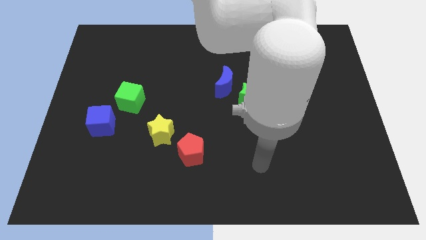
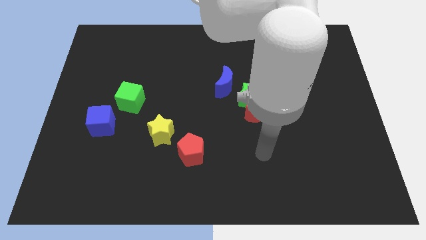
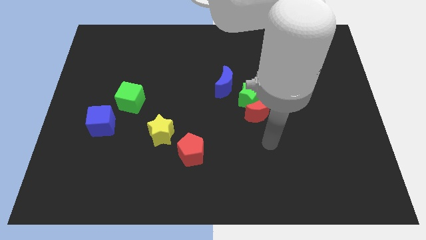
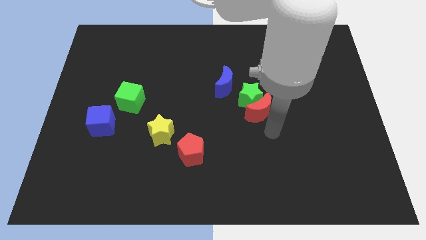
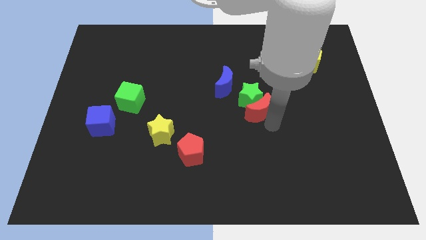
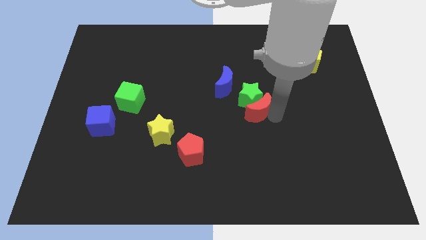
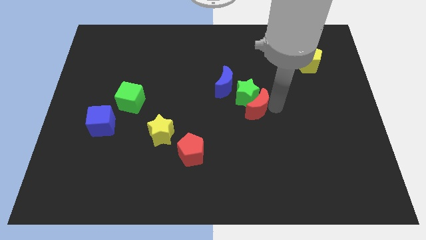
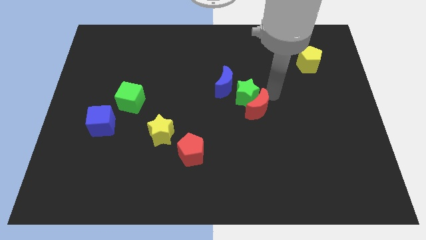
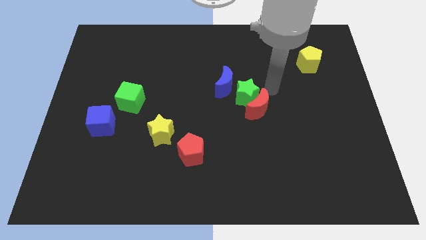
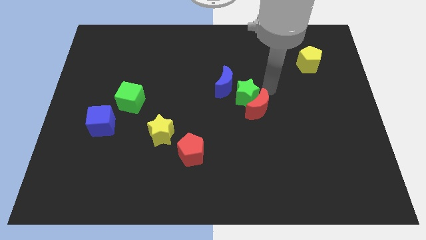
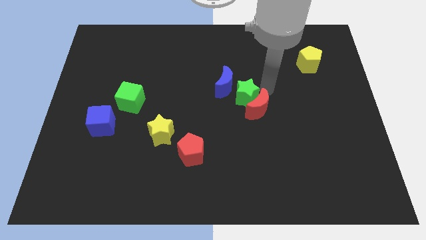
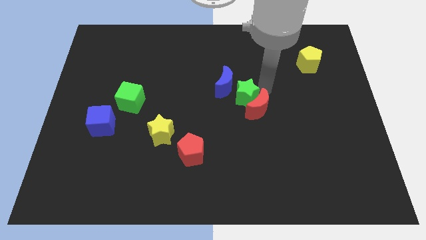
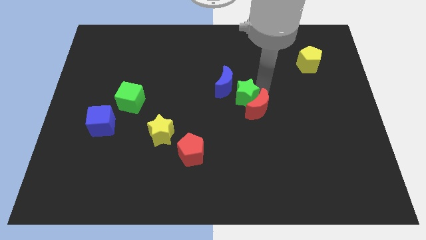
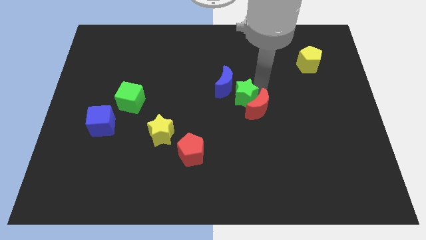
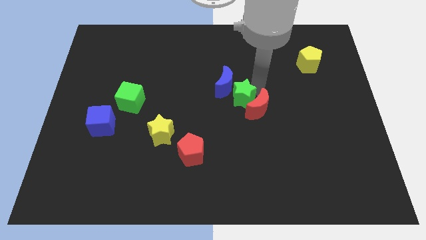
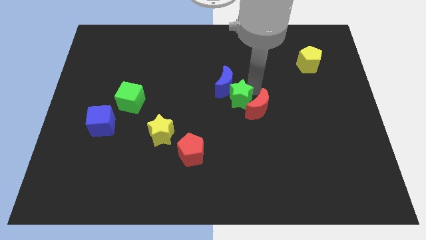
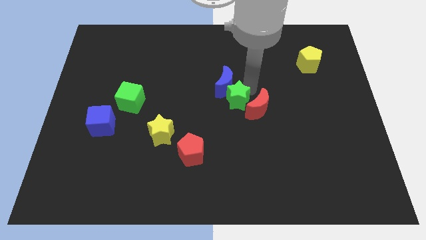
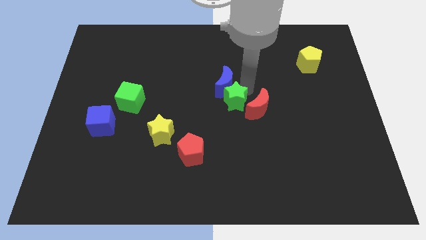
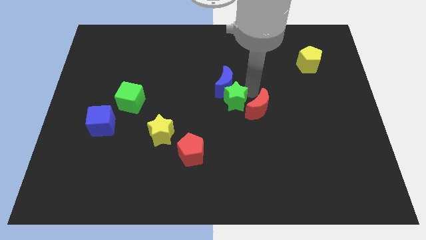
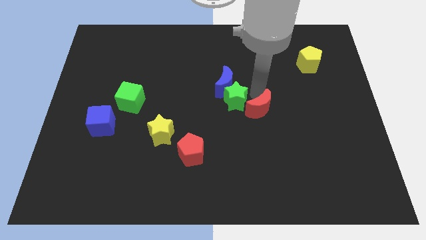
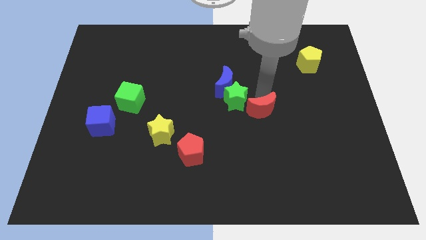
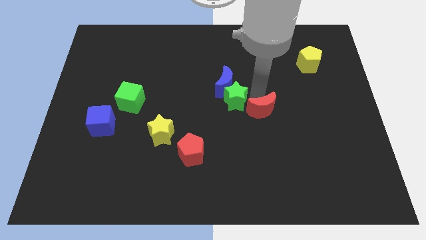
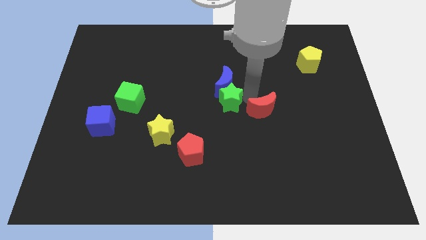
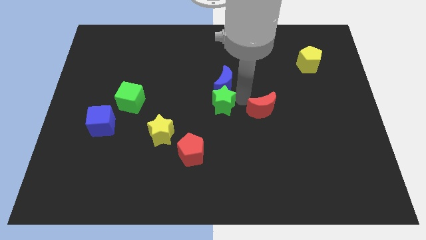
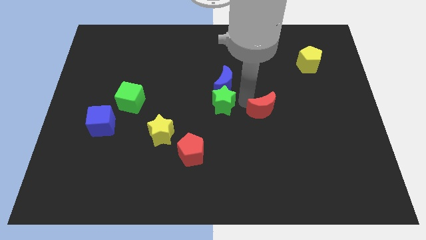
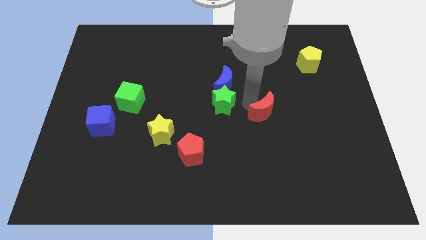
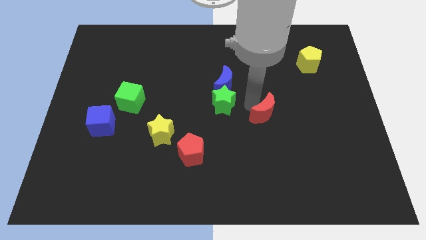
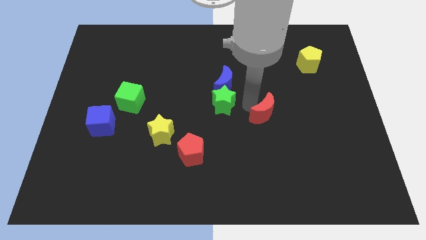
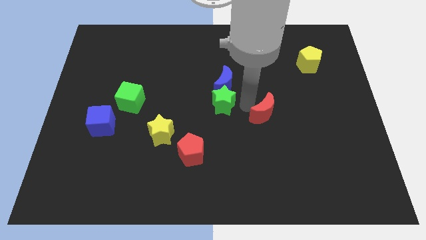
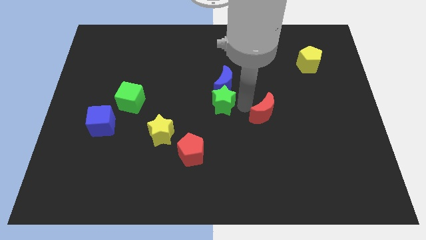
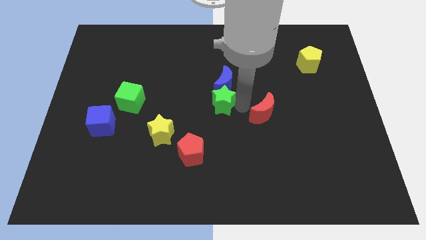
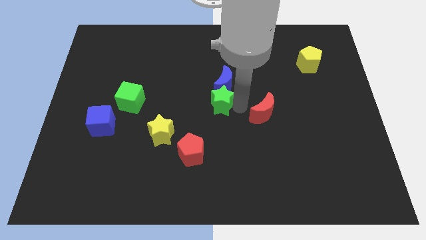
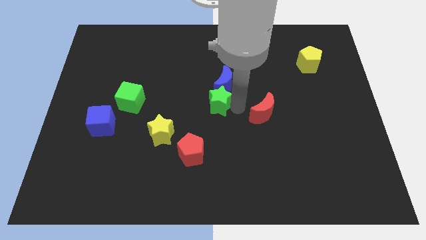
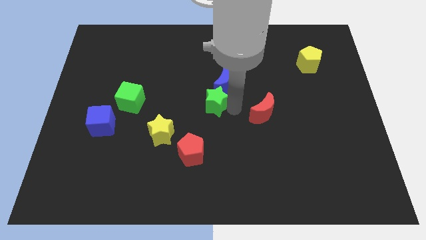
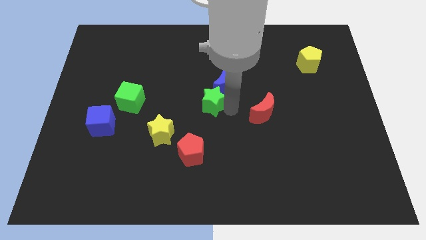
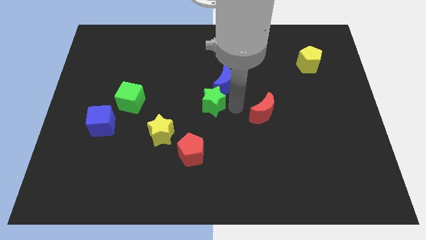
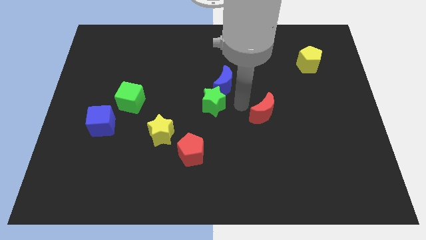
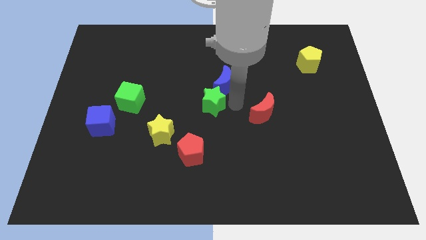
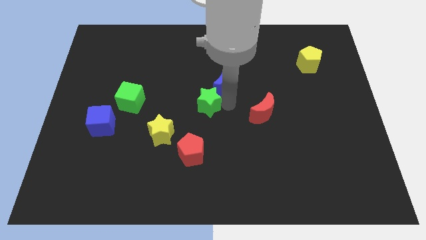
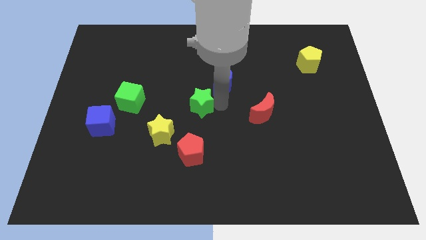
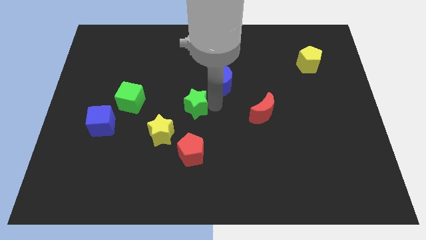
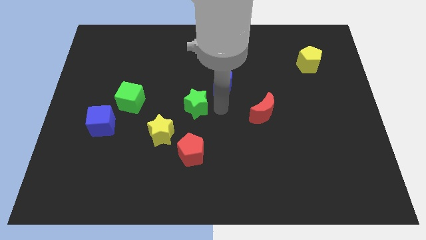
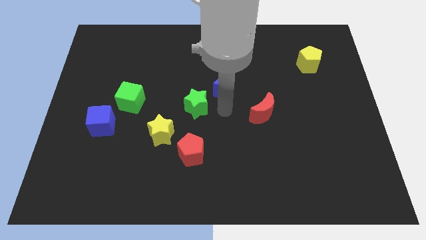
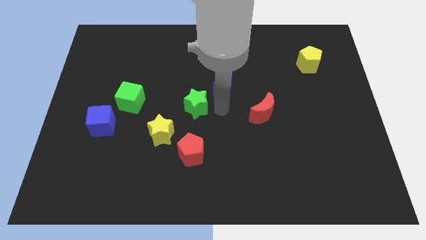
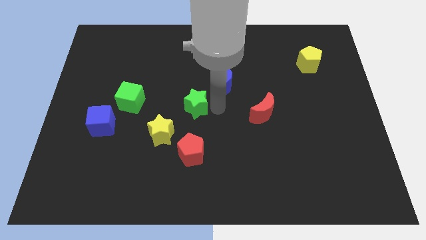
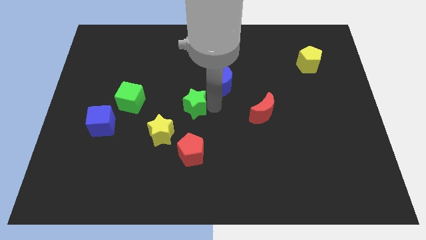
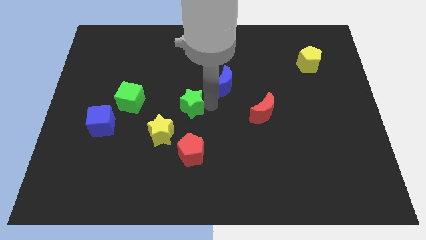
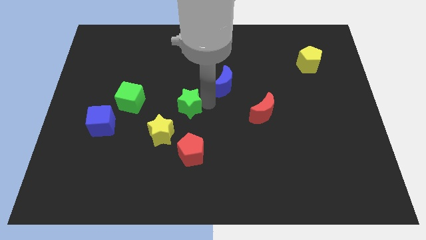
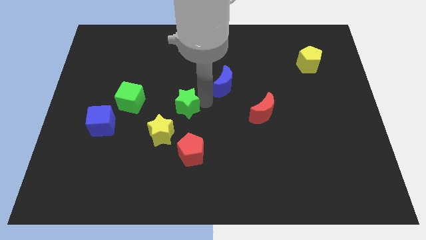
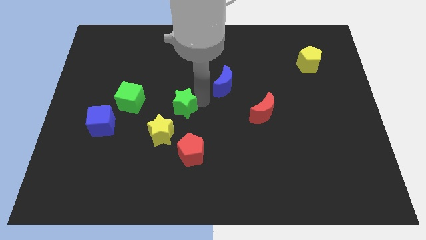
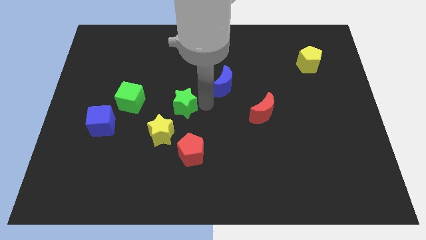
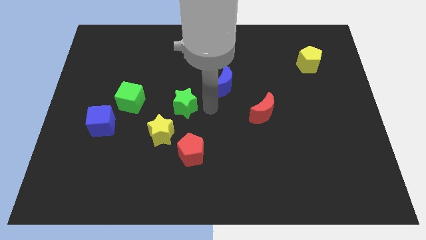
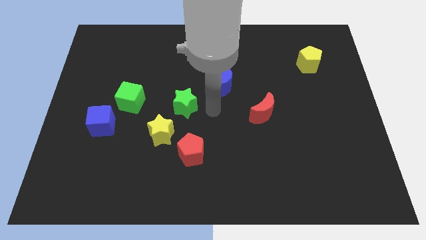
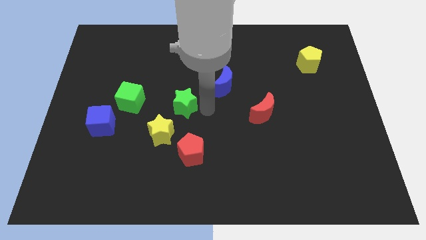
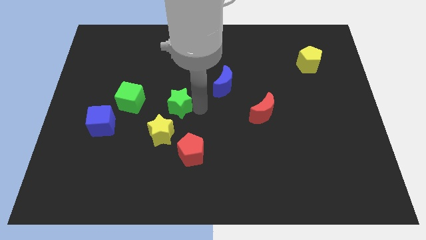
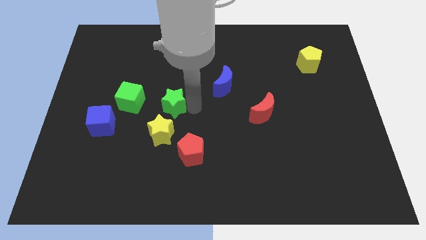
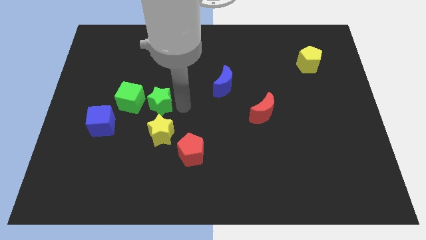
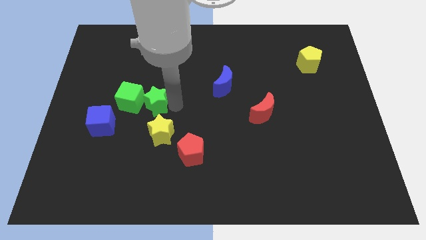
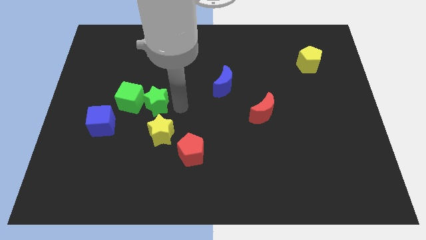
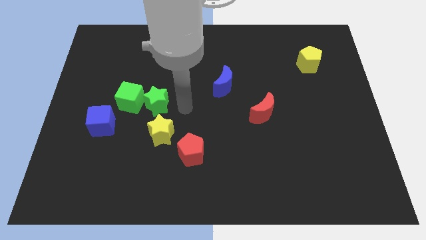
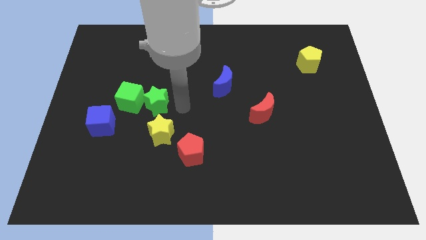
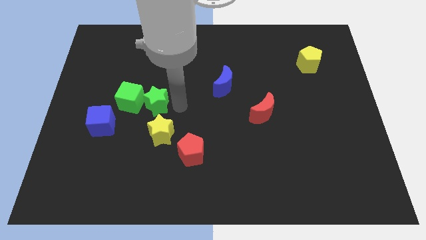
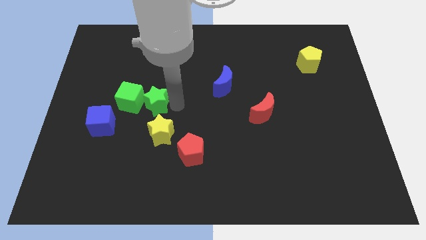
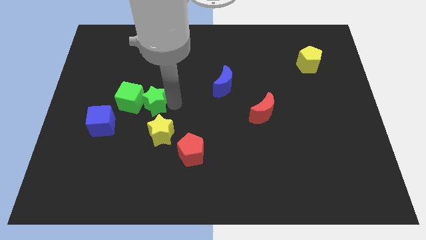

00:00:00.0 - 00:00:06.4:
put the green star to the green cube

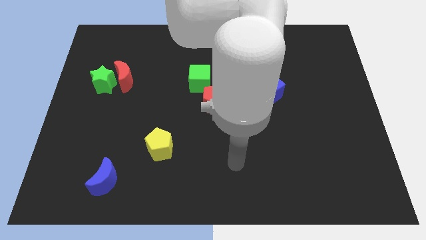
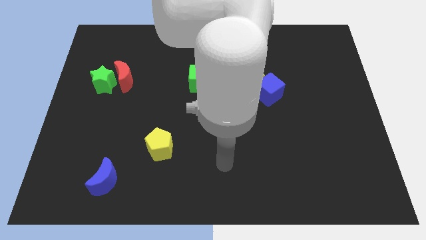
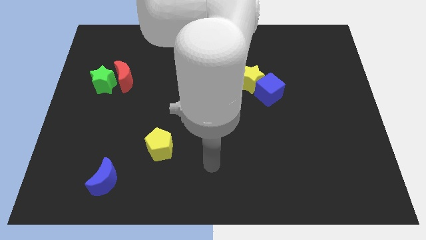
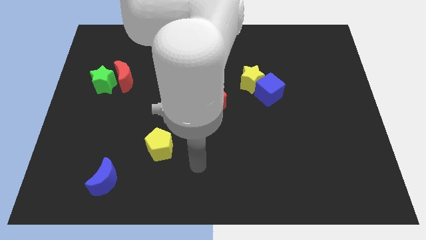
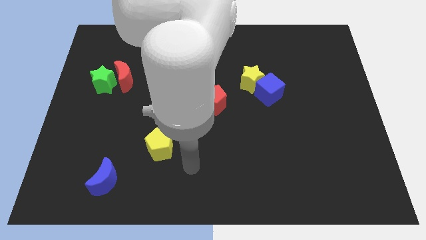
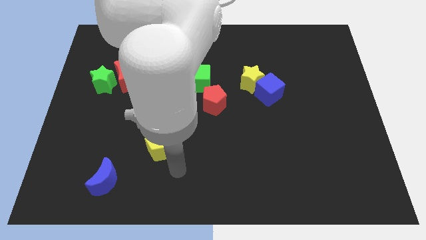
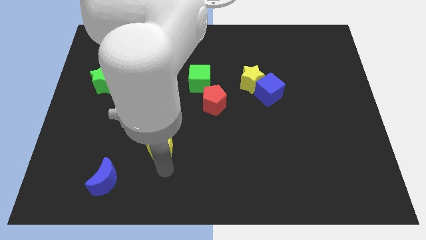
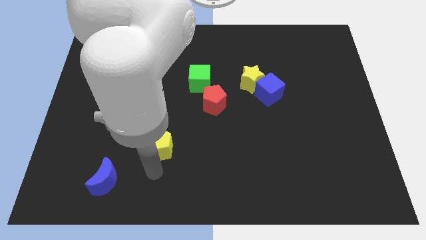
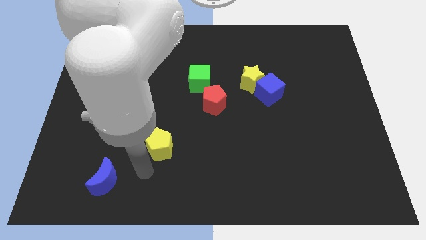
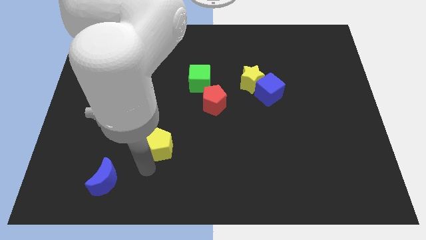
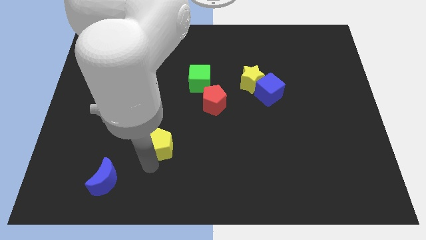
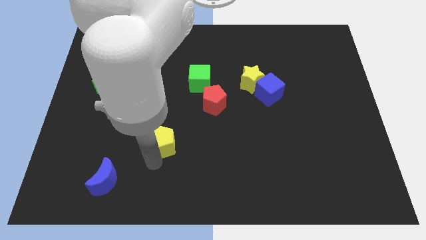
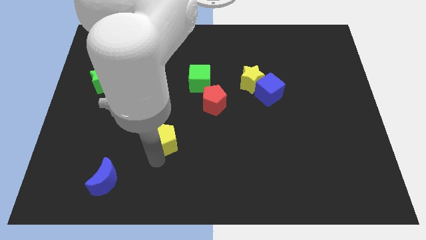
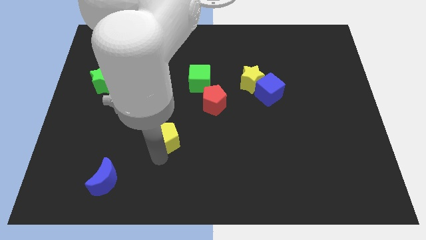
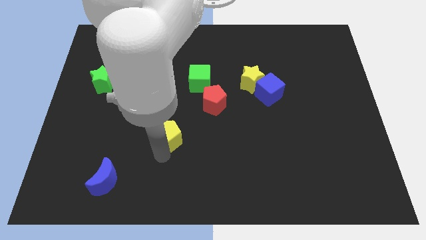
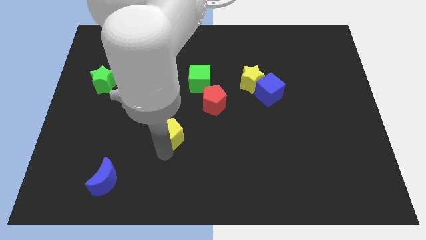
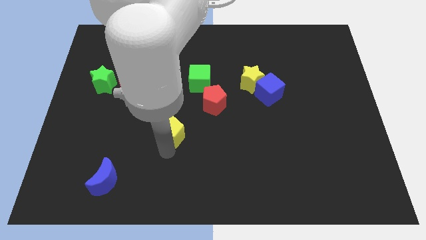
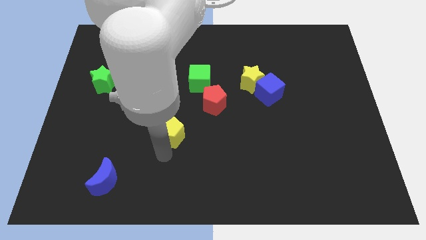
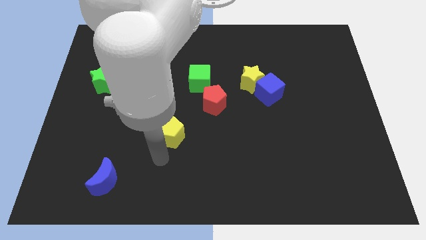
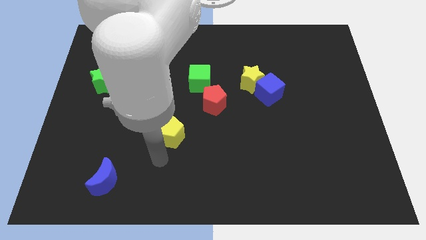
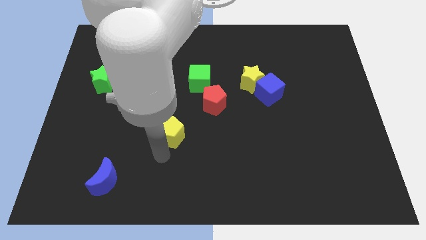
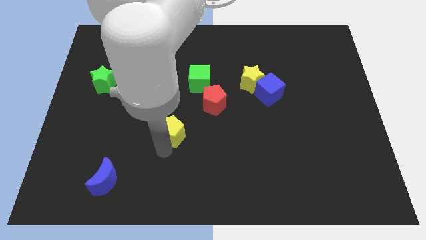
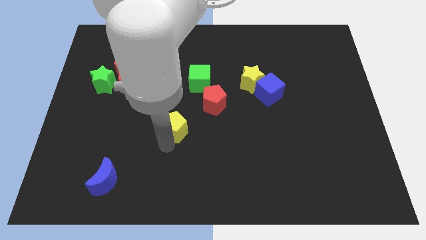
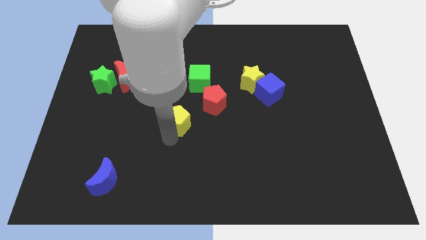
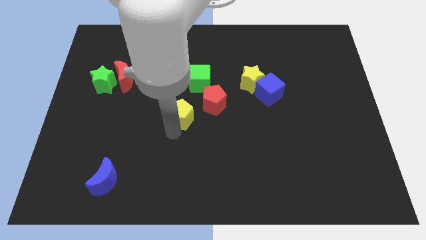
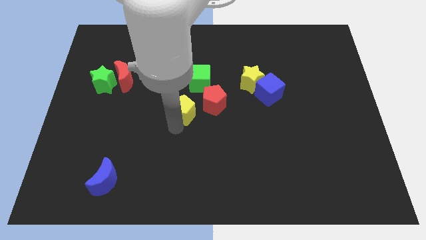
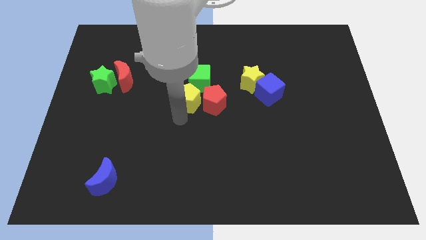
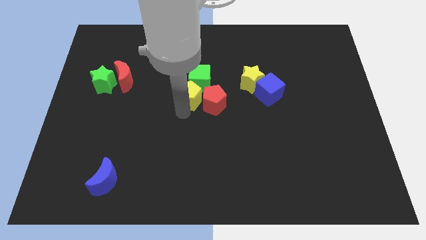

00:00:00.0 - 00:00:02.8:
move the yellow pentagon to the green cube
